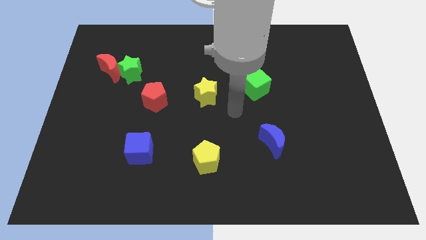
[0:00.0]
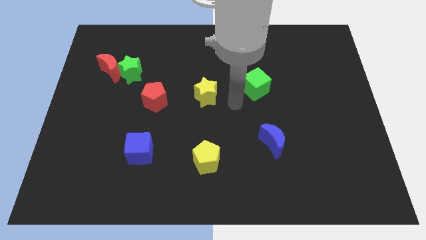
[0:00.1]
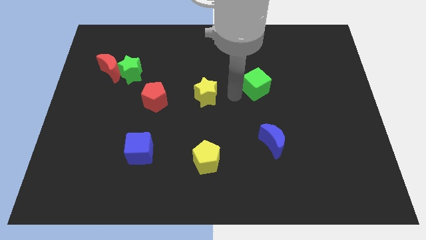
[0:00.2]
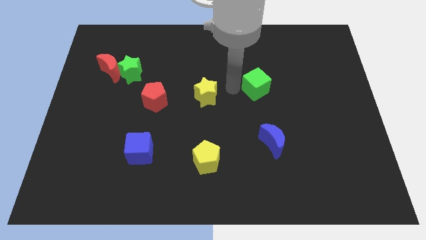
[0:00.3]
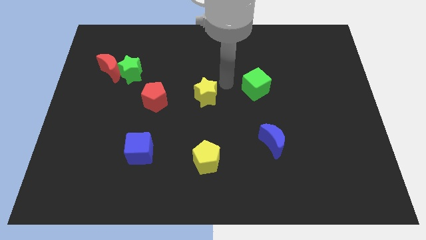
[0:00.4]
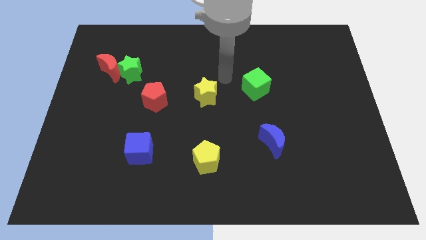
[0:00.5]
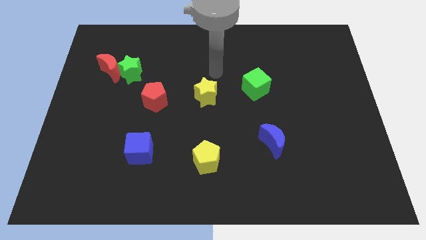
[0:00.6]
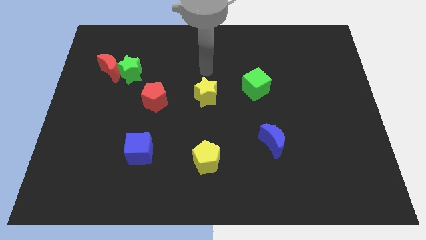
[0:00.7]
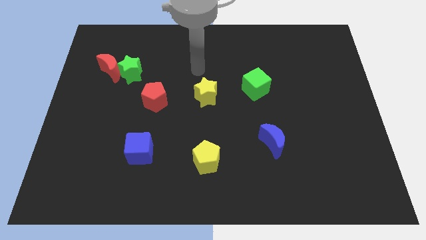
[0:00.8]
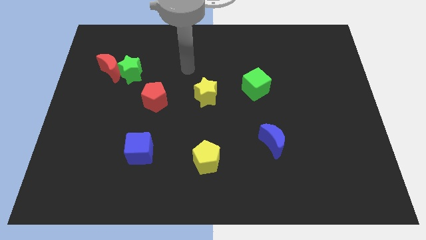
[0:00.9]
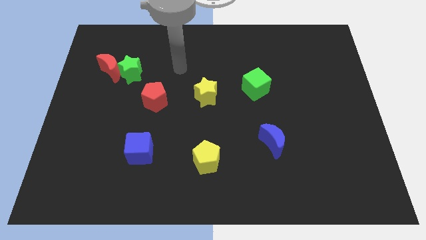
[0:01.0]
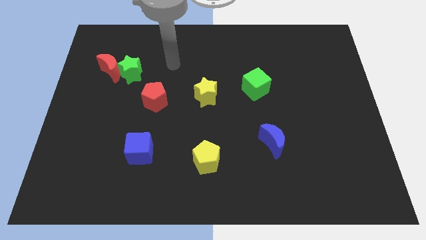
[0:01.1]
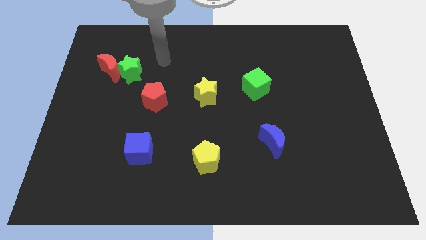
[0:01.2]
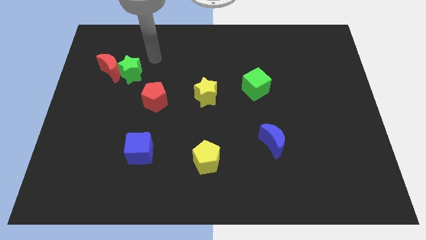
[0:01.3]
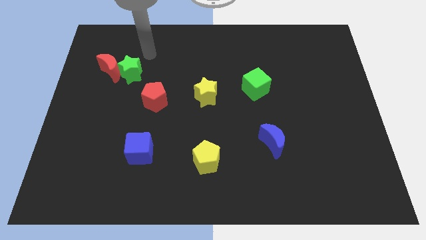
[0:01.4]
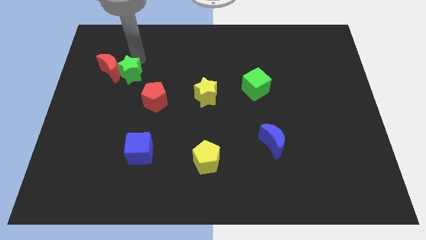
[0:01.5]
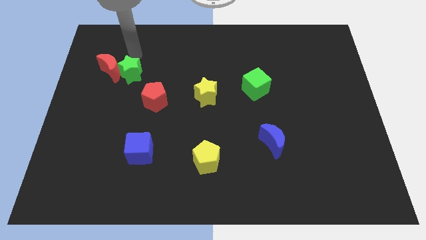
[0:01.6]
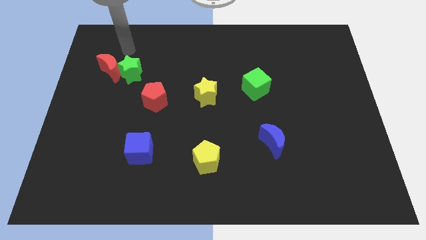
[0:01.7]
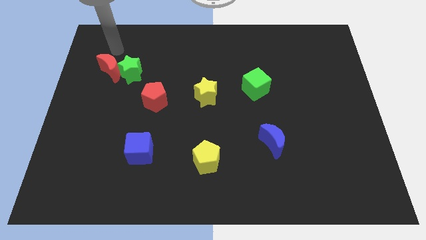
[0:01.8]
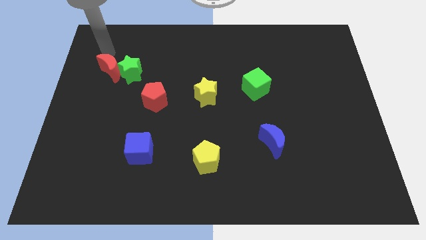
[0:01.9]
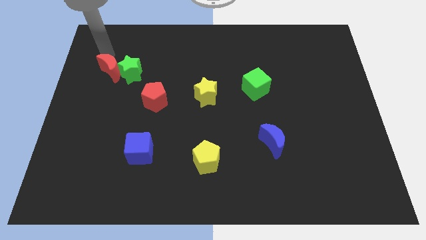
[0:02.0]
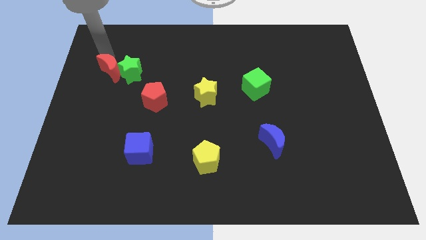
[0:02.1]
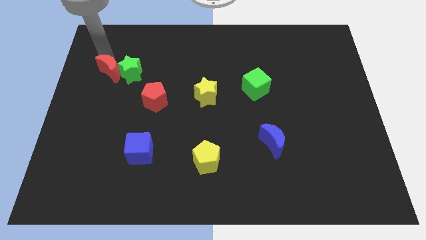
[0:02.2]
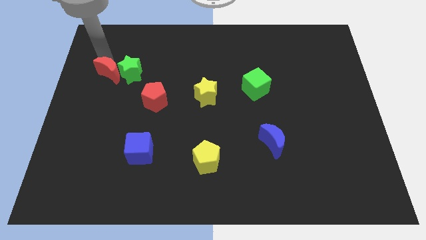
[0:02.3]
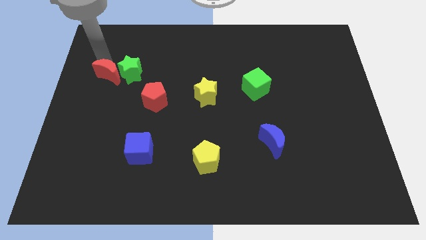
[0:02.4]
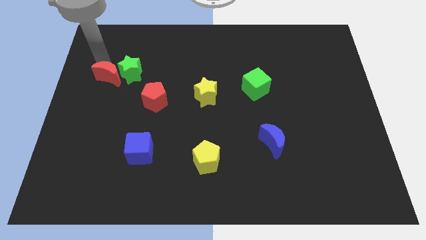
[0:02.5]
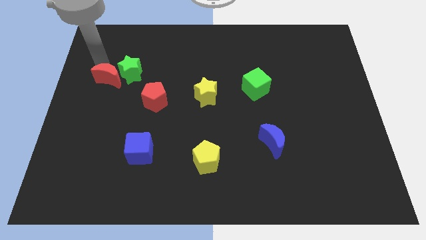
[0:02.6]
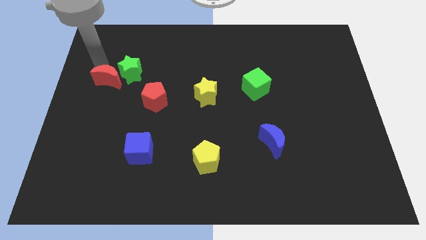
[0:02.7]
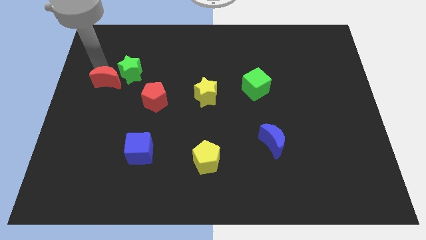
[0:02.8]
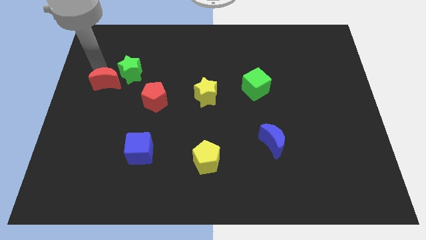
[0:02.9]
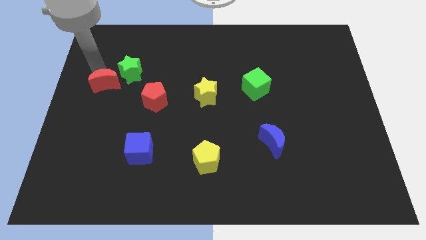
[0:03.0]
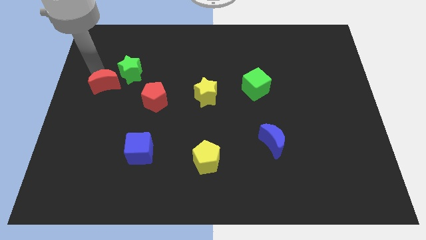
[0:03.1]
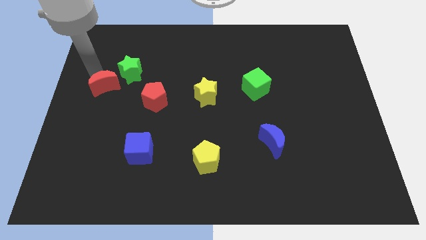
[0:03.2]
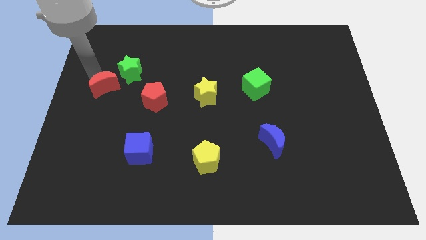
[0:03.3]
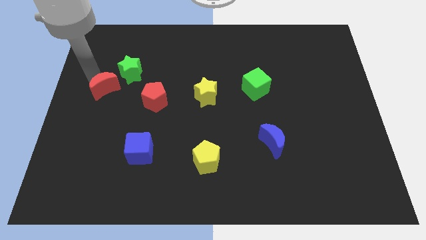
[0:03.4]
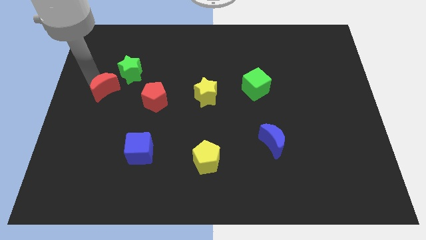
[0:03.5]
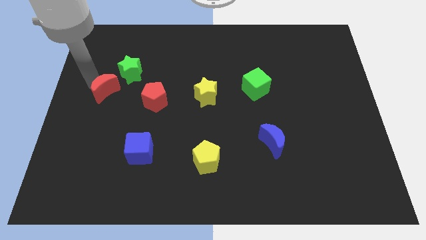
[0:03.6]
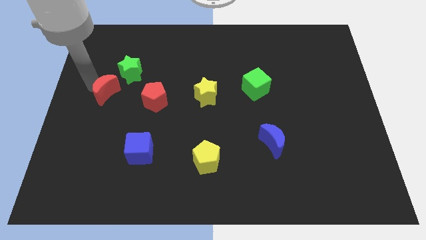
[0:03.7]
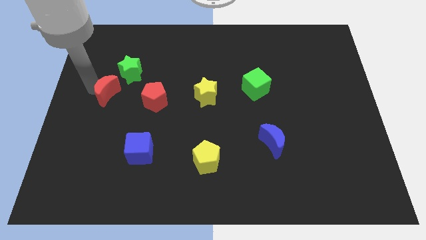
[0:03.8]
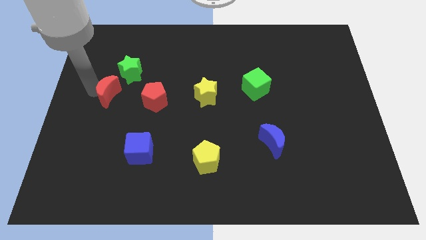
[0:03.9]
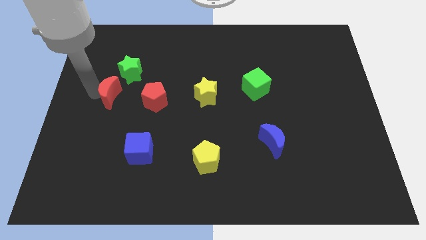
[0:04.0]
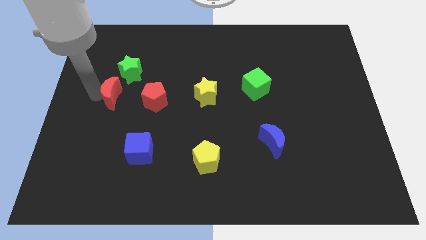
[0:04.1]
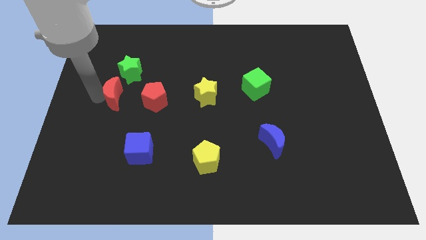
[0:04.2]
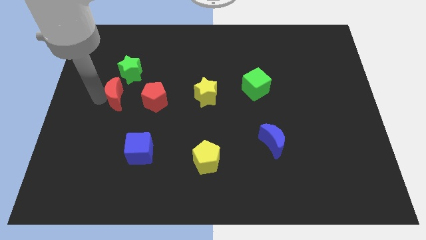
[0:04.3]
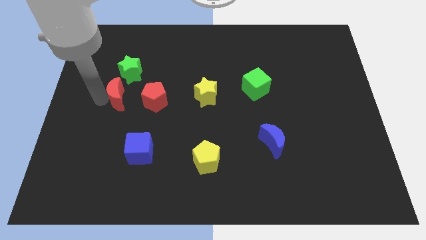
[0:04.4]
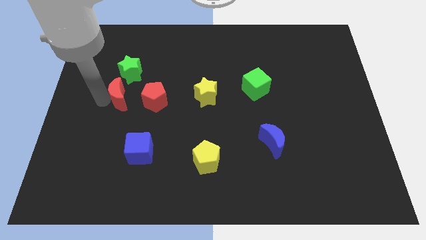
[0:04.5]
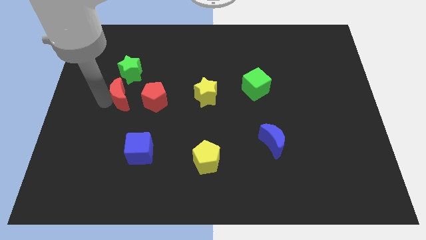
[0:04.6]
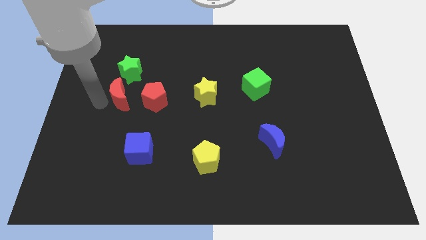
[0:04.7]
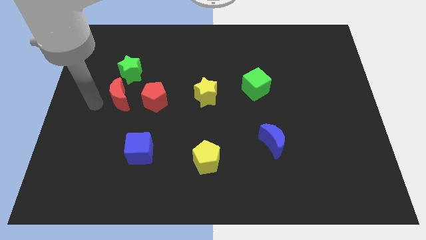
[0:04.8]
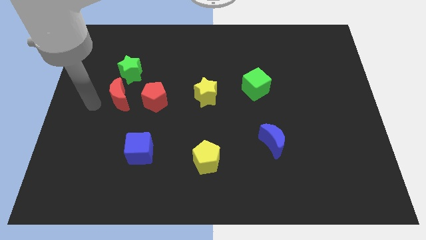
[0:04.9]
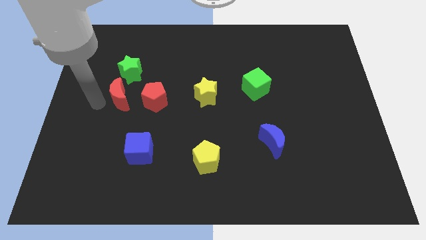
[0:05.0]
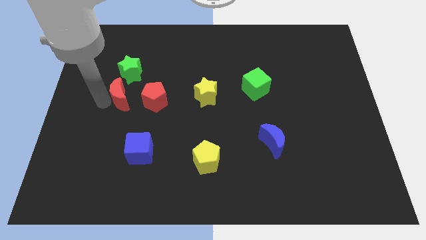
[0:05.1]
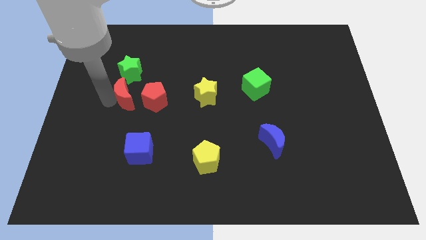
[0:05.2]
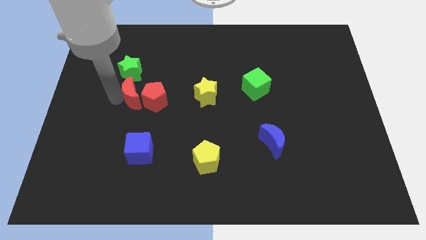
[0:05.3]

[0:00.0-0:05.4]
put the red moon to the red pentagon

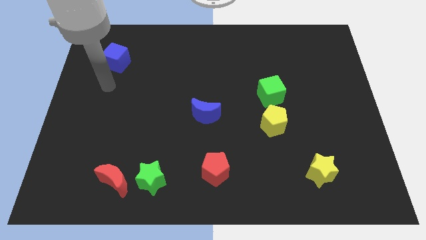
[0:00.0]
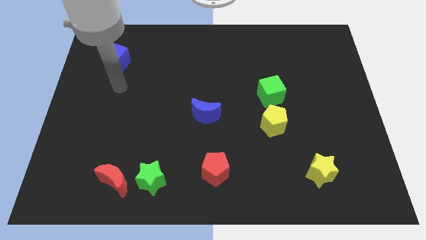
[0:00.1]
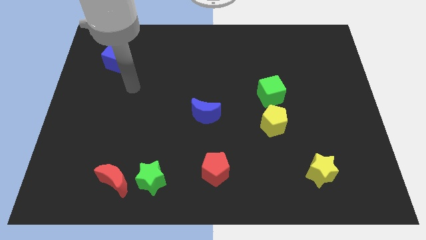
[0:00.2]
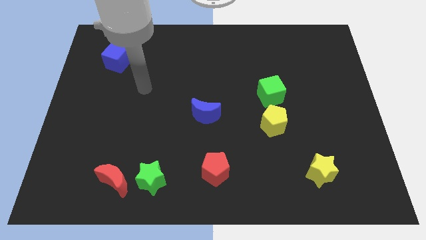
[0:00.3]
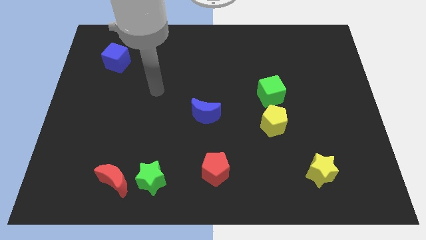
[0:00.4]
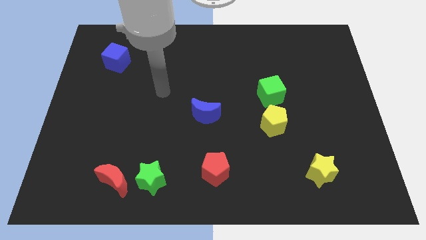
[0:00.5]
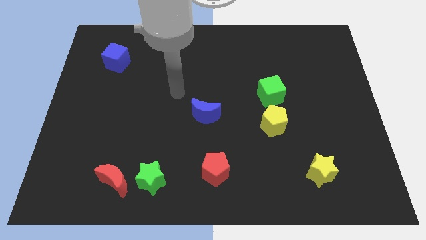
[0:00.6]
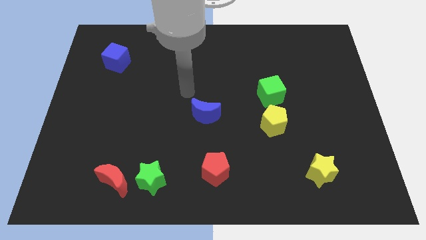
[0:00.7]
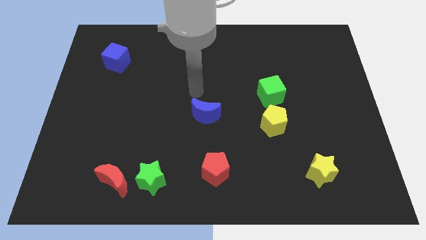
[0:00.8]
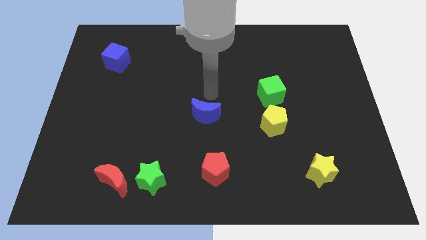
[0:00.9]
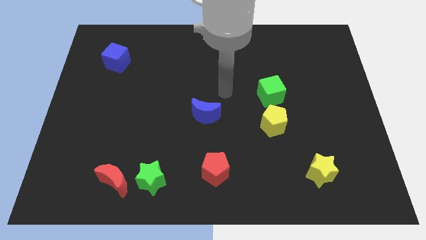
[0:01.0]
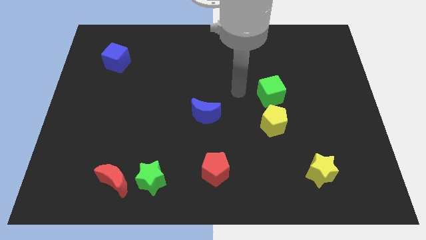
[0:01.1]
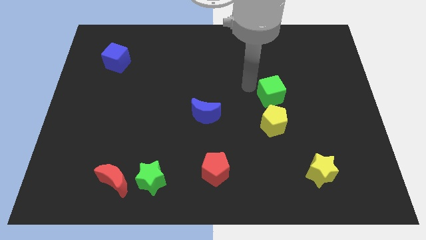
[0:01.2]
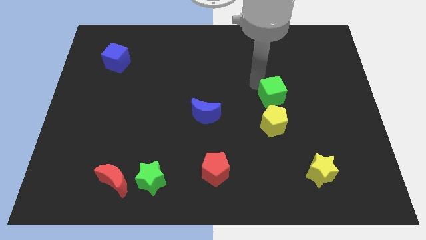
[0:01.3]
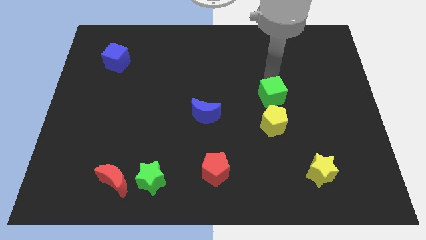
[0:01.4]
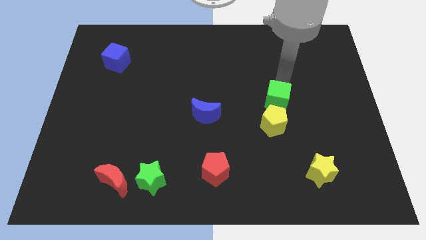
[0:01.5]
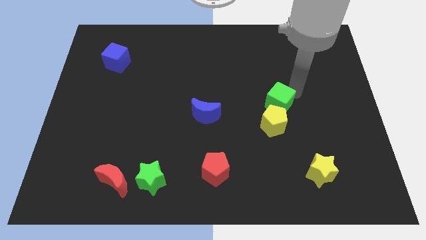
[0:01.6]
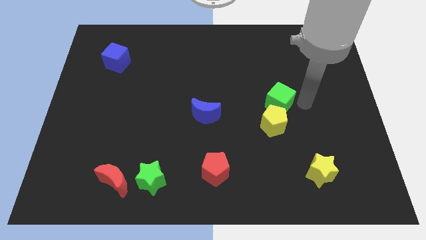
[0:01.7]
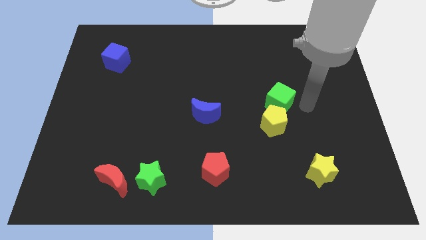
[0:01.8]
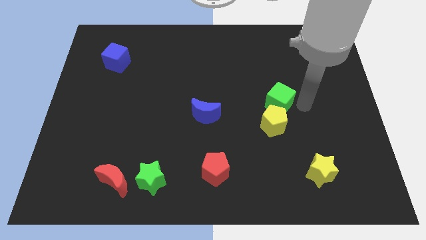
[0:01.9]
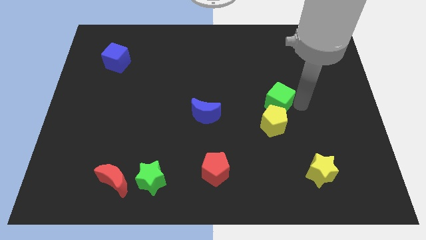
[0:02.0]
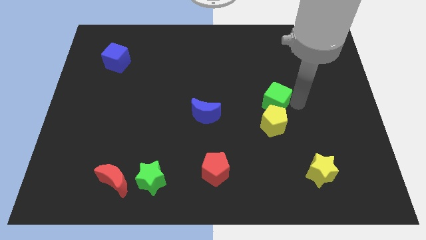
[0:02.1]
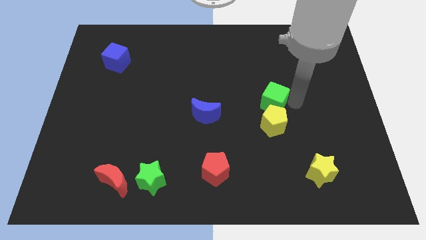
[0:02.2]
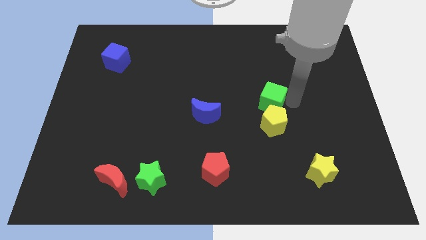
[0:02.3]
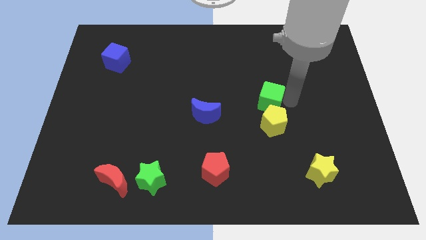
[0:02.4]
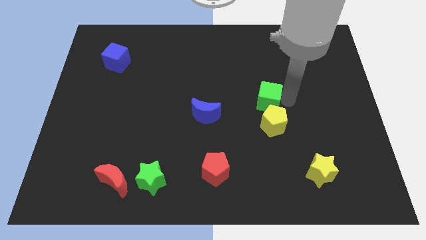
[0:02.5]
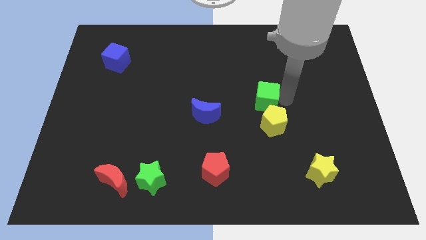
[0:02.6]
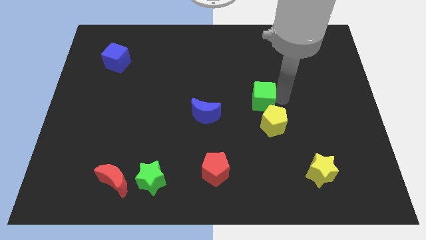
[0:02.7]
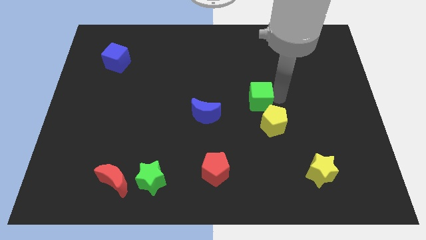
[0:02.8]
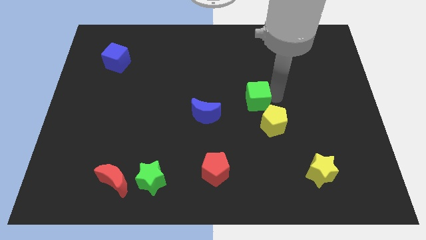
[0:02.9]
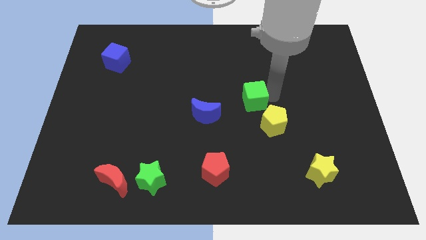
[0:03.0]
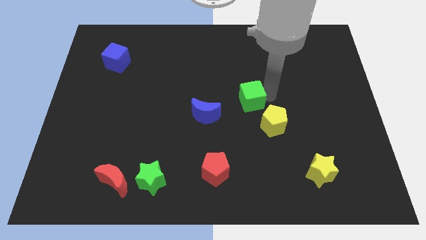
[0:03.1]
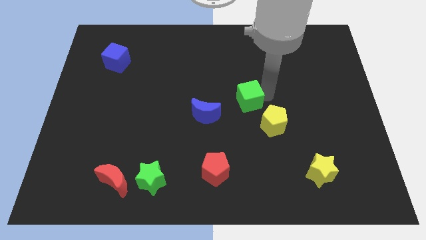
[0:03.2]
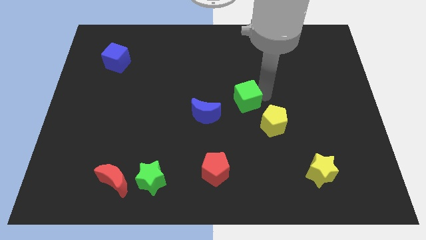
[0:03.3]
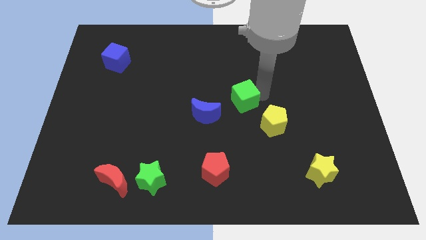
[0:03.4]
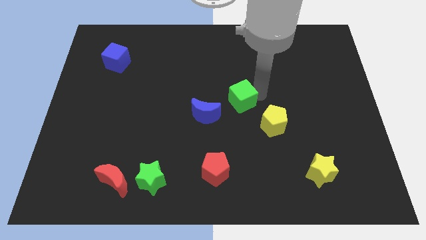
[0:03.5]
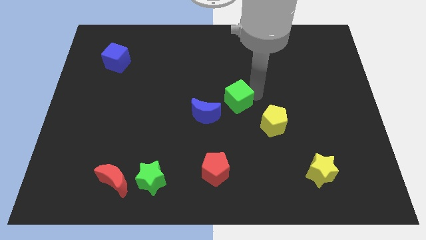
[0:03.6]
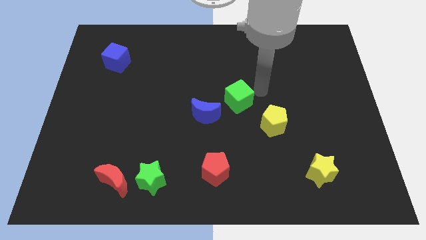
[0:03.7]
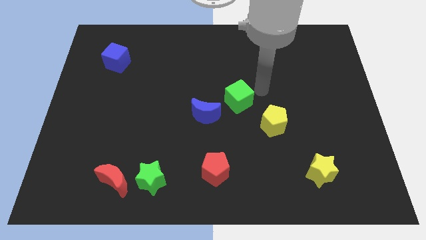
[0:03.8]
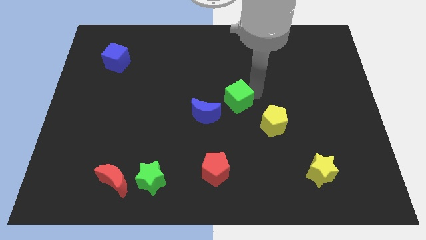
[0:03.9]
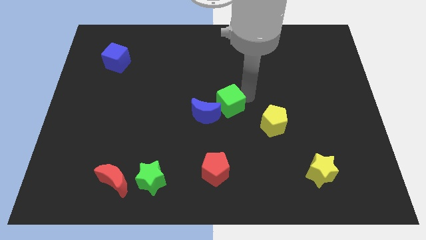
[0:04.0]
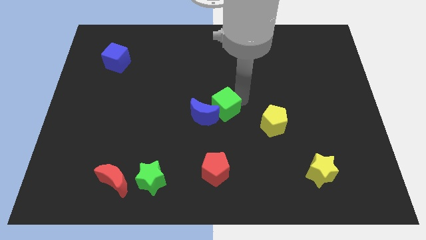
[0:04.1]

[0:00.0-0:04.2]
put the green cube towards the blue moon
